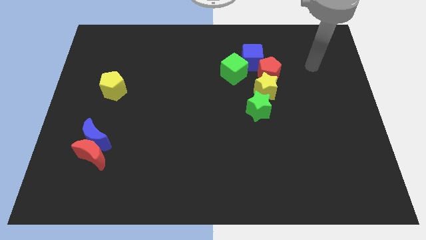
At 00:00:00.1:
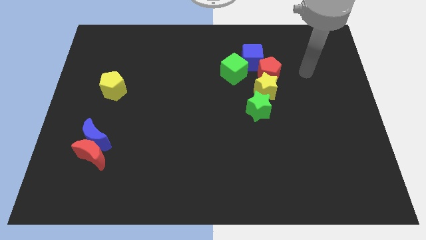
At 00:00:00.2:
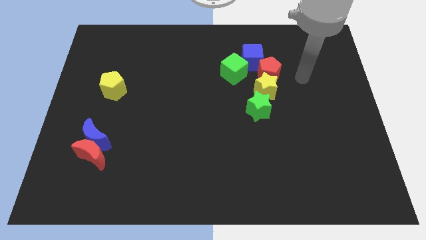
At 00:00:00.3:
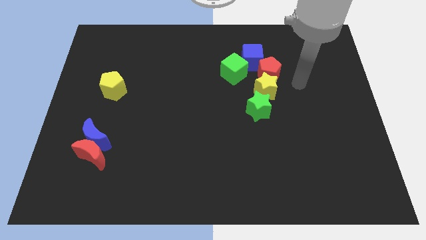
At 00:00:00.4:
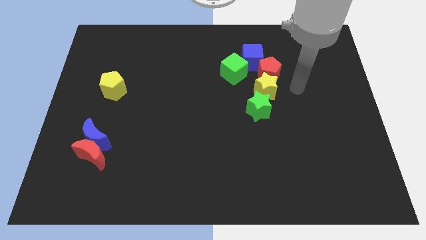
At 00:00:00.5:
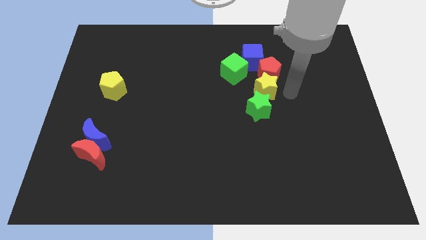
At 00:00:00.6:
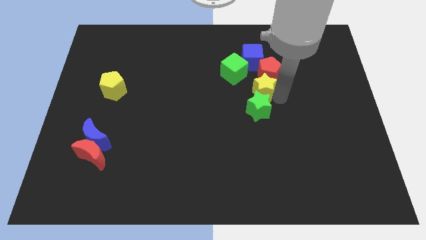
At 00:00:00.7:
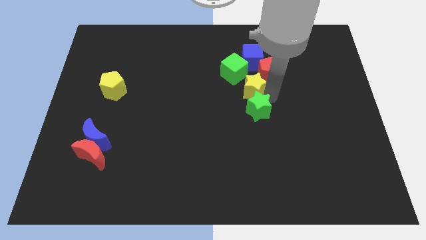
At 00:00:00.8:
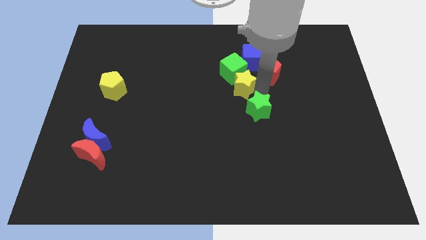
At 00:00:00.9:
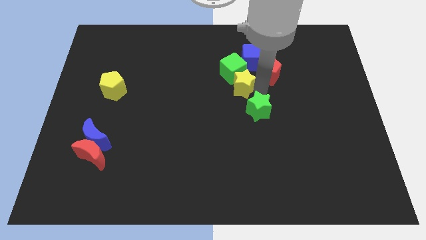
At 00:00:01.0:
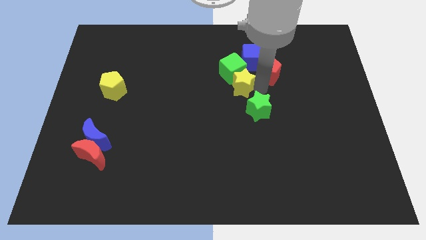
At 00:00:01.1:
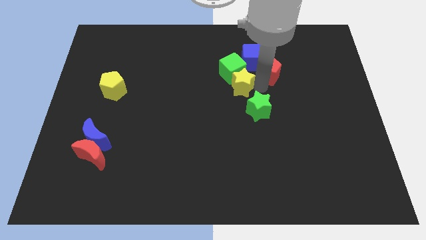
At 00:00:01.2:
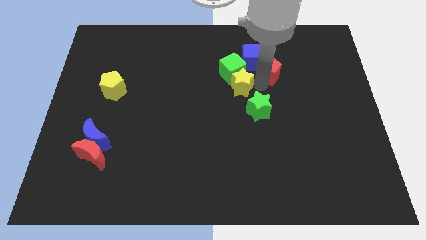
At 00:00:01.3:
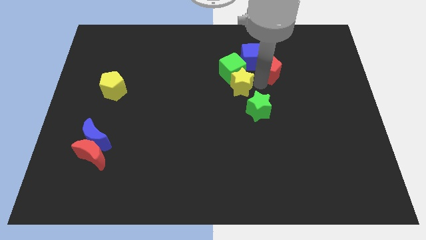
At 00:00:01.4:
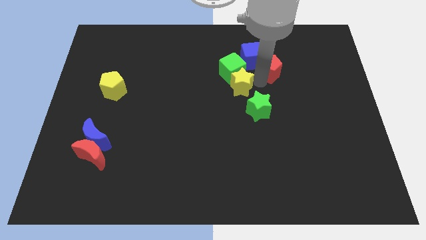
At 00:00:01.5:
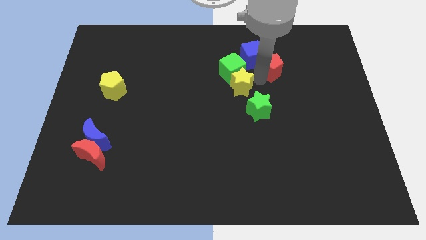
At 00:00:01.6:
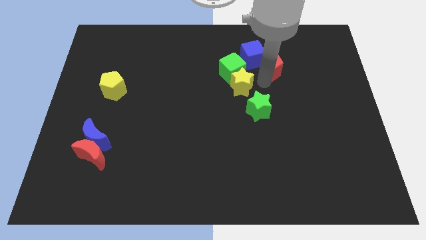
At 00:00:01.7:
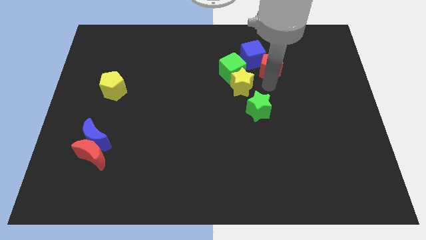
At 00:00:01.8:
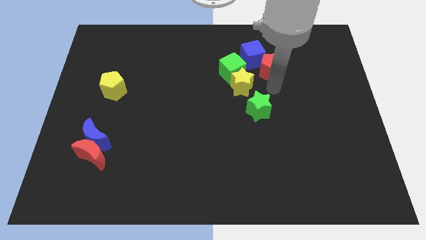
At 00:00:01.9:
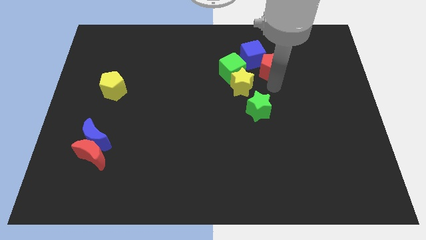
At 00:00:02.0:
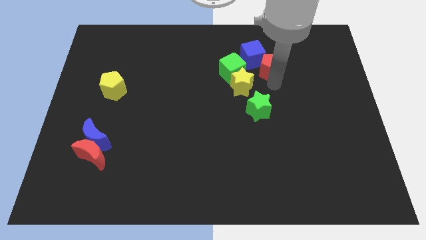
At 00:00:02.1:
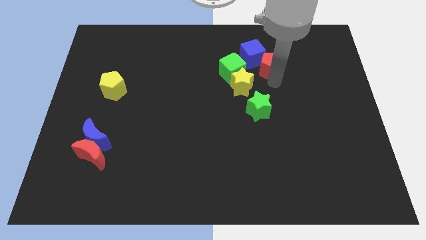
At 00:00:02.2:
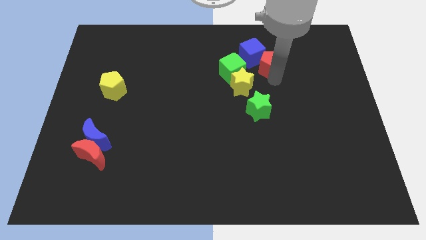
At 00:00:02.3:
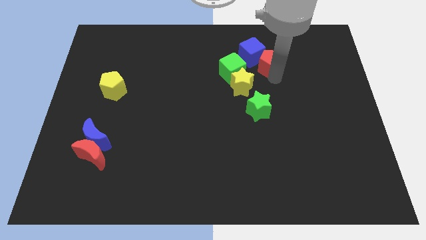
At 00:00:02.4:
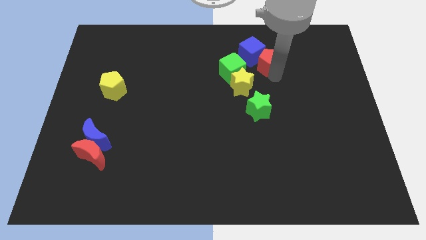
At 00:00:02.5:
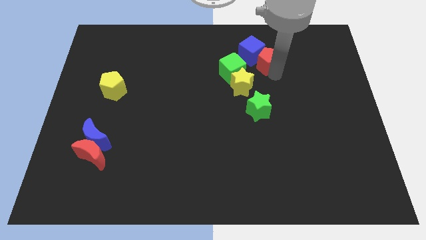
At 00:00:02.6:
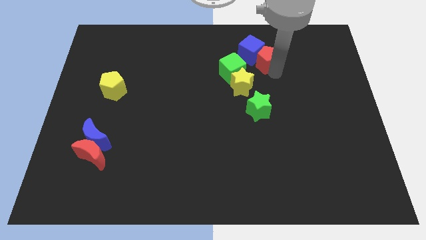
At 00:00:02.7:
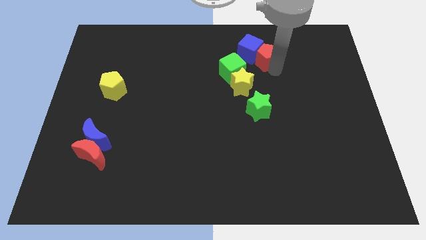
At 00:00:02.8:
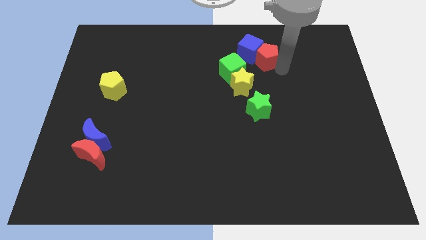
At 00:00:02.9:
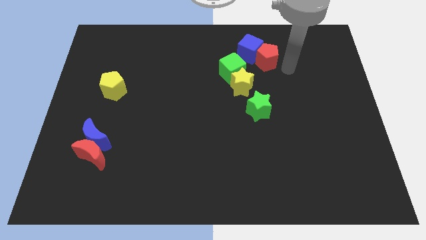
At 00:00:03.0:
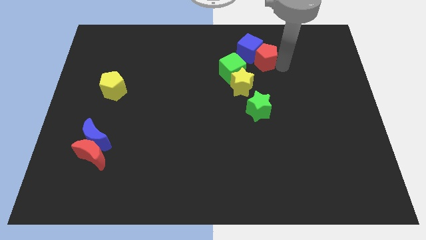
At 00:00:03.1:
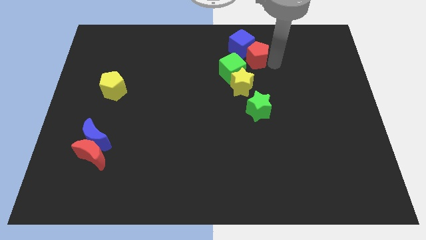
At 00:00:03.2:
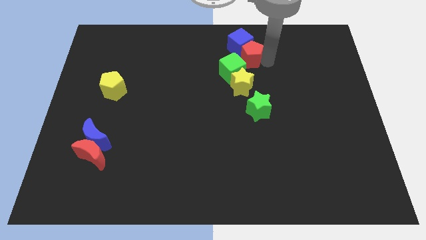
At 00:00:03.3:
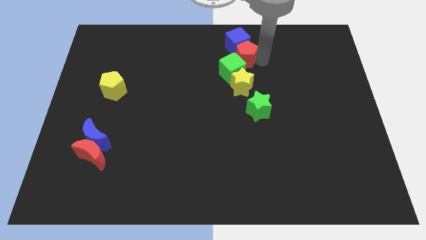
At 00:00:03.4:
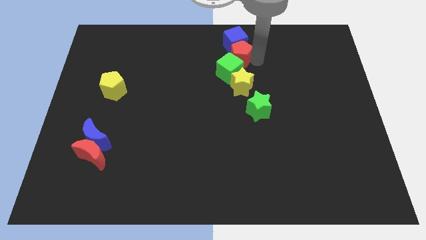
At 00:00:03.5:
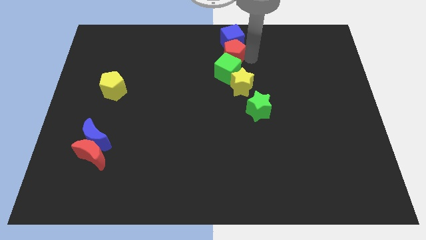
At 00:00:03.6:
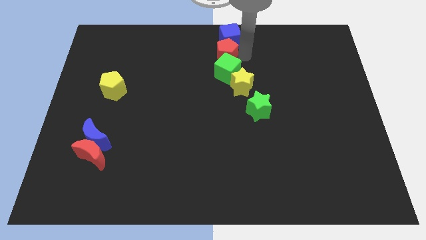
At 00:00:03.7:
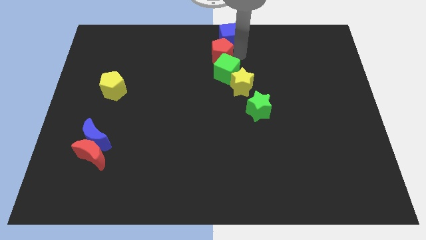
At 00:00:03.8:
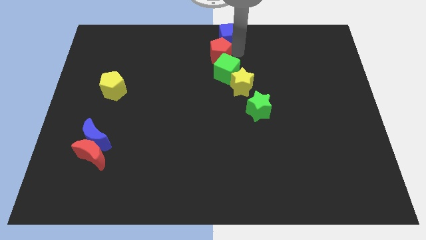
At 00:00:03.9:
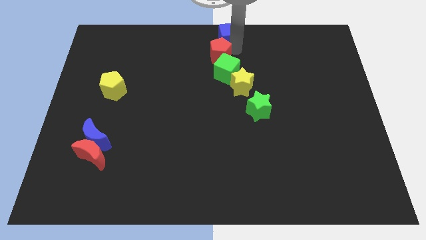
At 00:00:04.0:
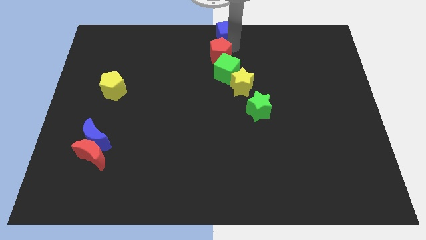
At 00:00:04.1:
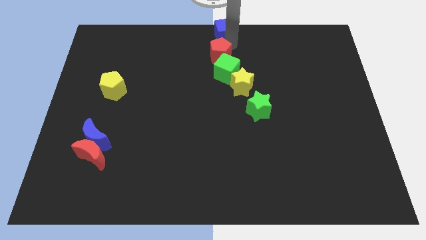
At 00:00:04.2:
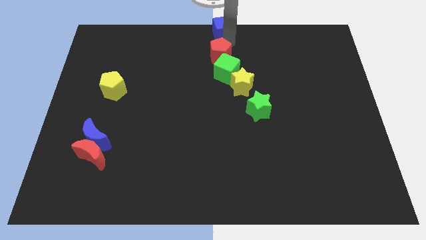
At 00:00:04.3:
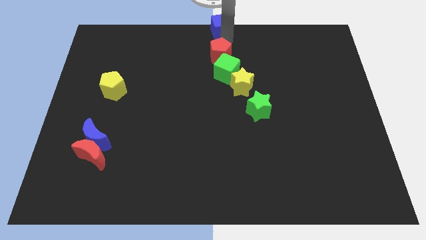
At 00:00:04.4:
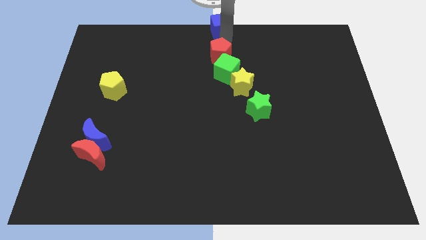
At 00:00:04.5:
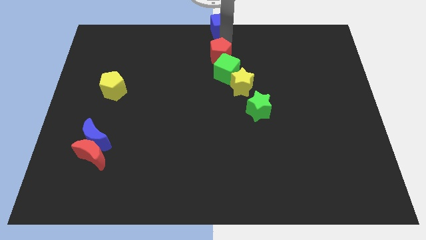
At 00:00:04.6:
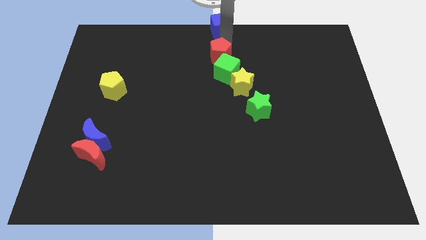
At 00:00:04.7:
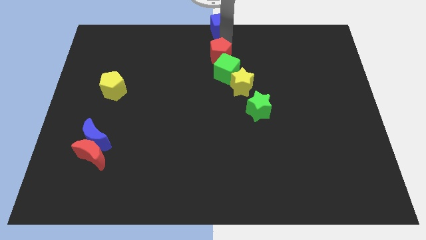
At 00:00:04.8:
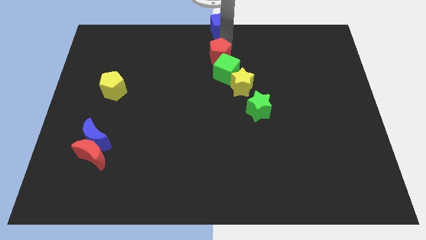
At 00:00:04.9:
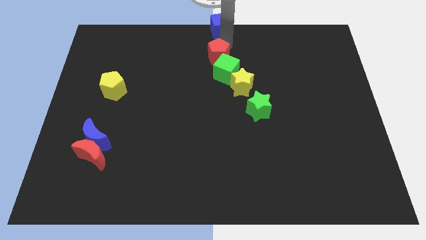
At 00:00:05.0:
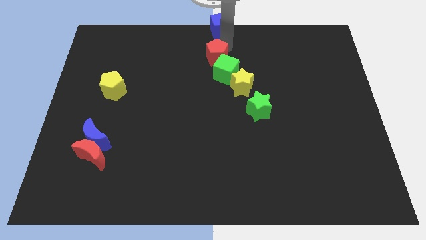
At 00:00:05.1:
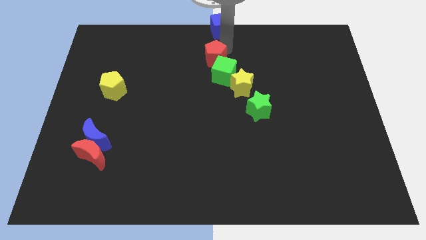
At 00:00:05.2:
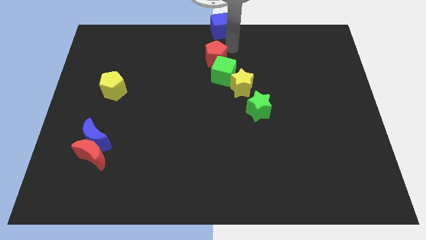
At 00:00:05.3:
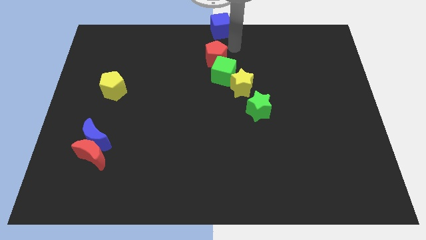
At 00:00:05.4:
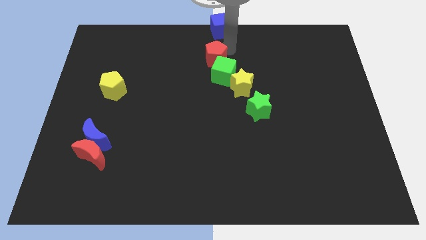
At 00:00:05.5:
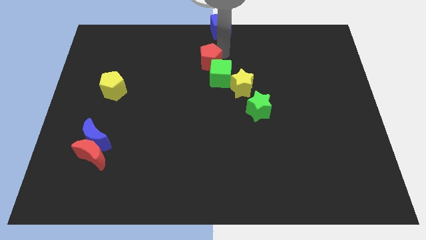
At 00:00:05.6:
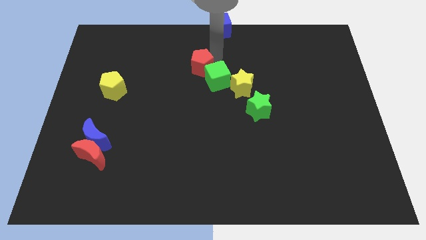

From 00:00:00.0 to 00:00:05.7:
put the red pentagon just left of the green cube

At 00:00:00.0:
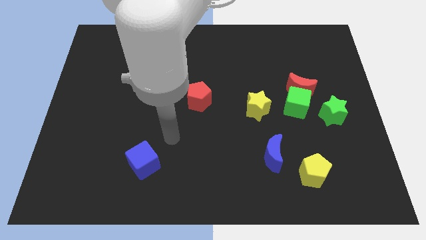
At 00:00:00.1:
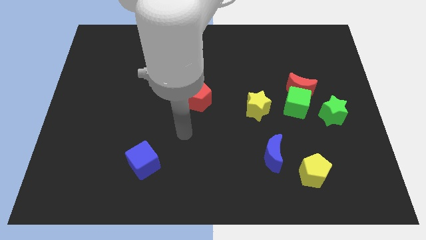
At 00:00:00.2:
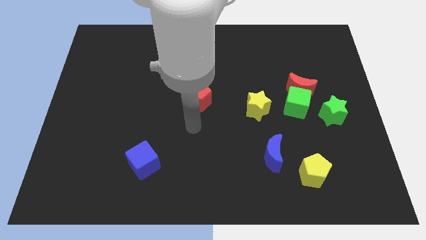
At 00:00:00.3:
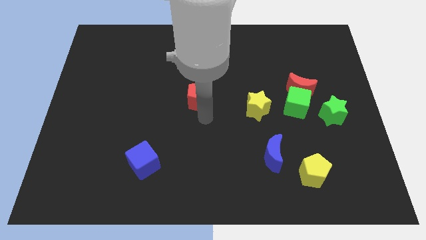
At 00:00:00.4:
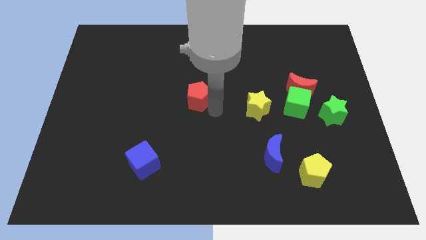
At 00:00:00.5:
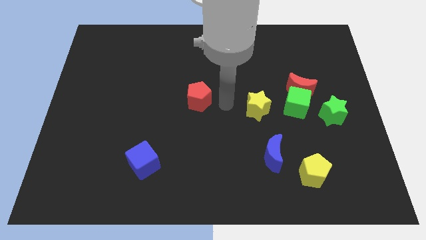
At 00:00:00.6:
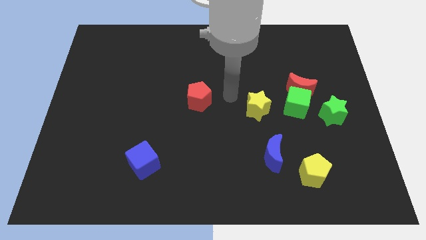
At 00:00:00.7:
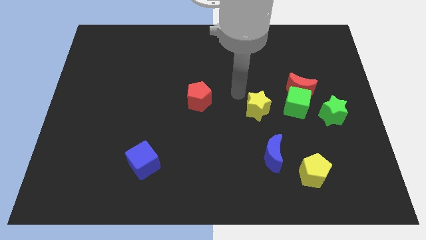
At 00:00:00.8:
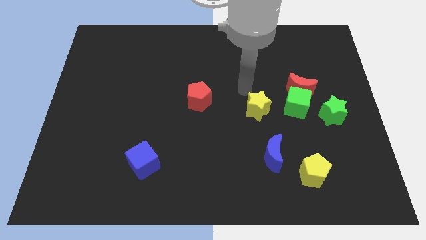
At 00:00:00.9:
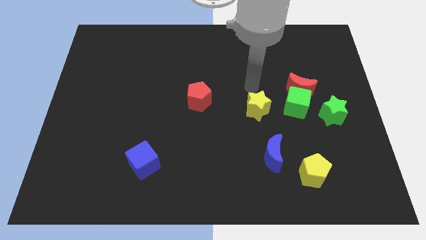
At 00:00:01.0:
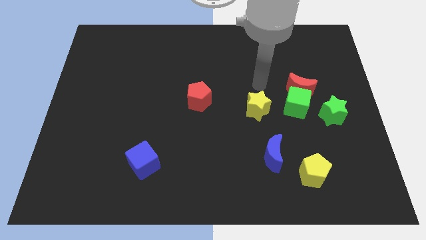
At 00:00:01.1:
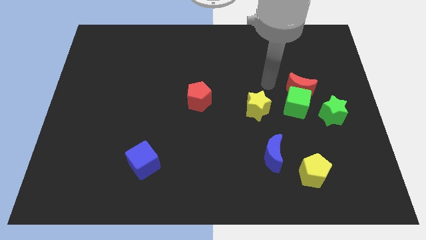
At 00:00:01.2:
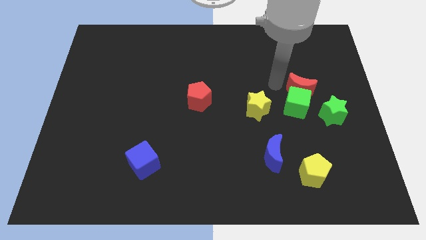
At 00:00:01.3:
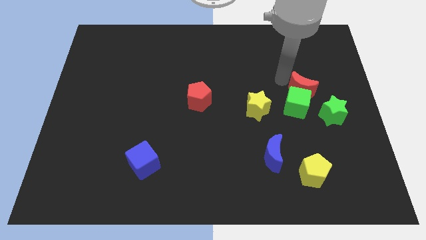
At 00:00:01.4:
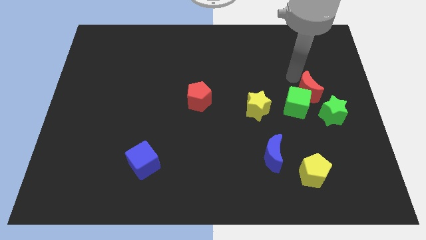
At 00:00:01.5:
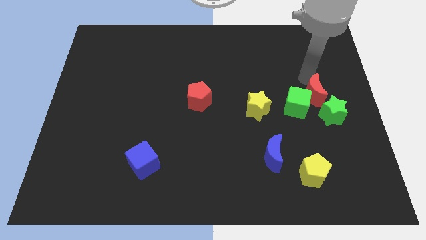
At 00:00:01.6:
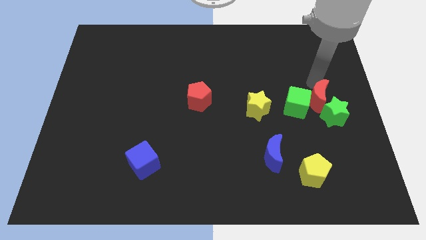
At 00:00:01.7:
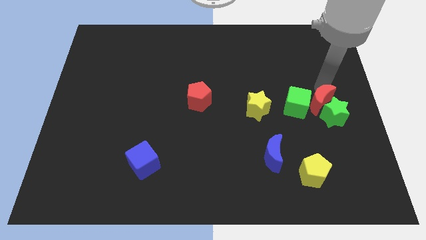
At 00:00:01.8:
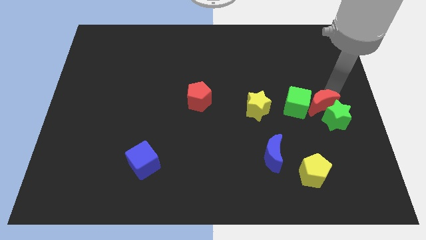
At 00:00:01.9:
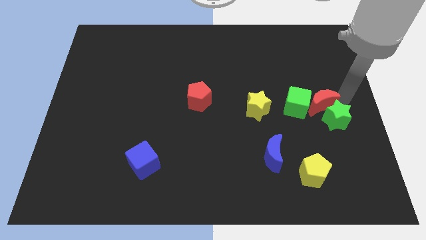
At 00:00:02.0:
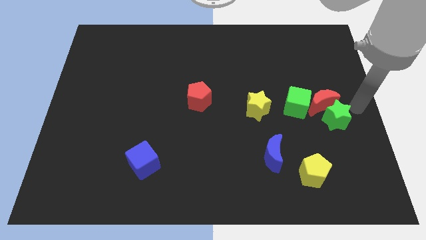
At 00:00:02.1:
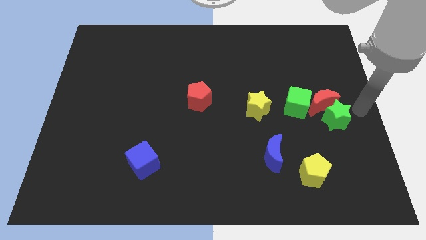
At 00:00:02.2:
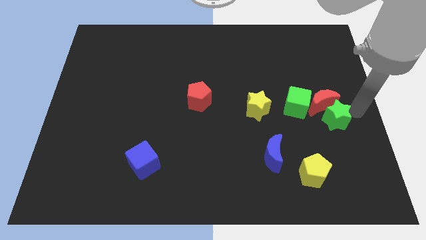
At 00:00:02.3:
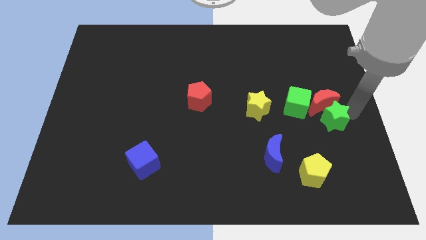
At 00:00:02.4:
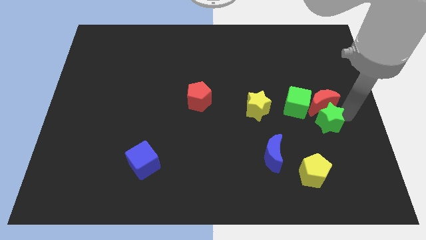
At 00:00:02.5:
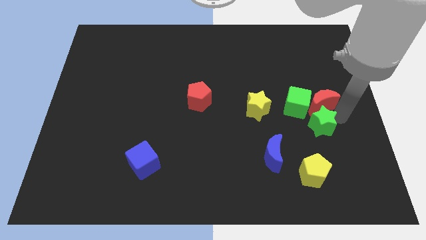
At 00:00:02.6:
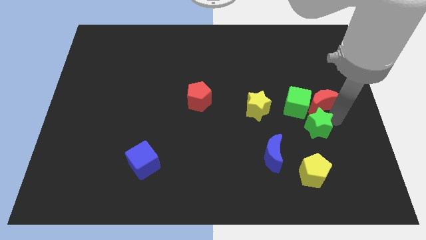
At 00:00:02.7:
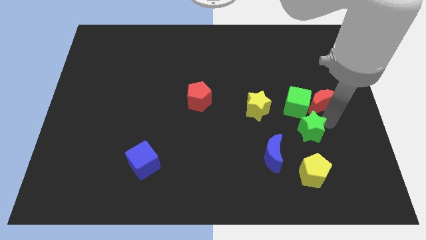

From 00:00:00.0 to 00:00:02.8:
slide the green star to the top right of the blue moon
